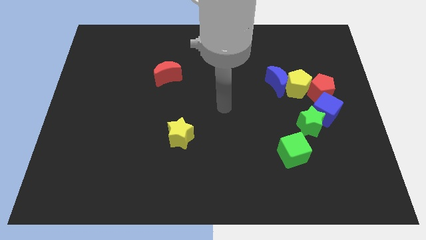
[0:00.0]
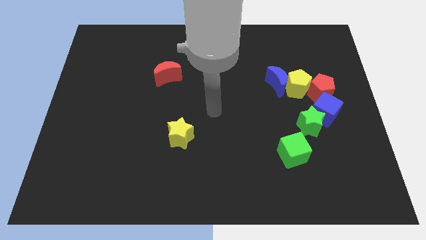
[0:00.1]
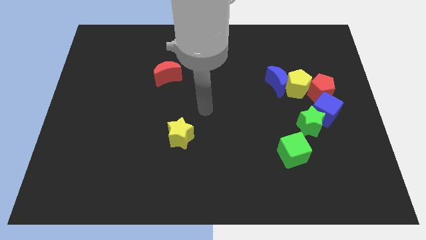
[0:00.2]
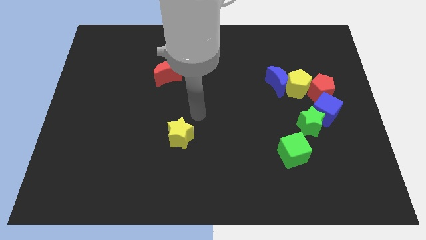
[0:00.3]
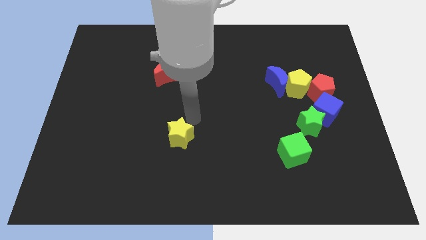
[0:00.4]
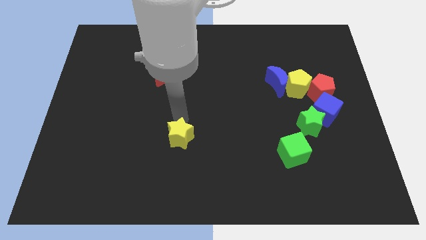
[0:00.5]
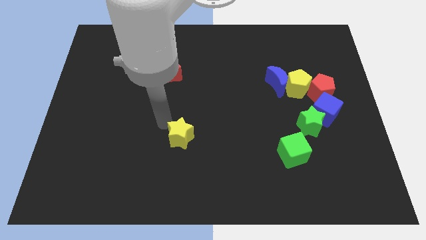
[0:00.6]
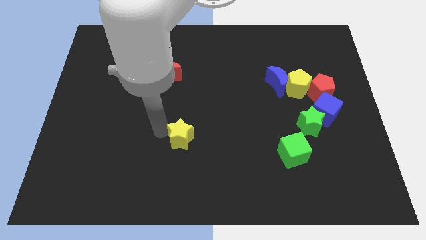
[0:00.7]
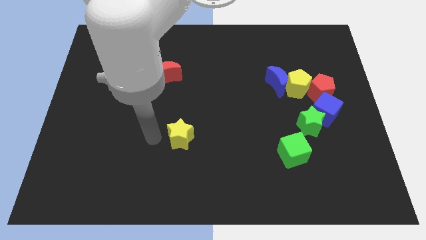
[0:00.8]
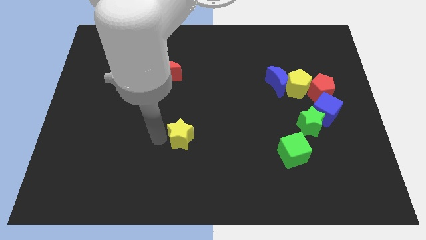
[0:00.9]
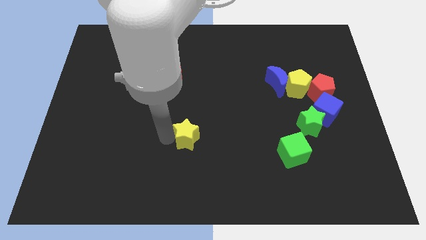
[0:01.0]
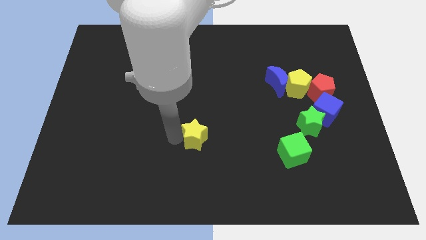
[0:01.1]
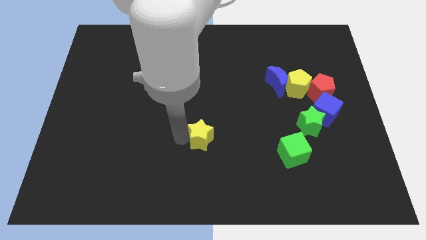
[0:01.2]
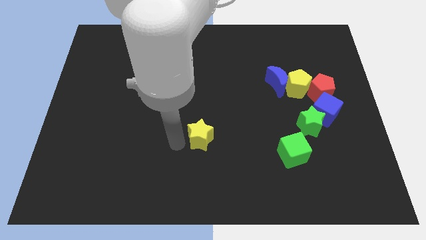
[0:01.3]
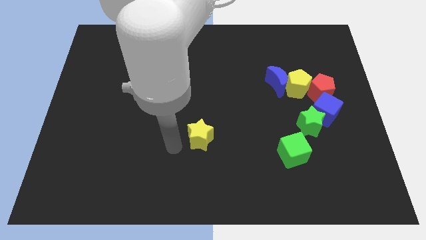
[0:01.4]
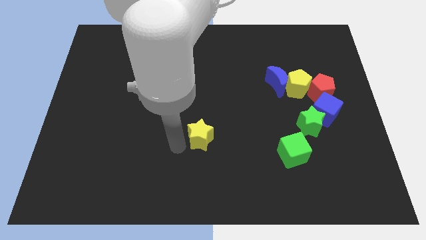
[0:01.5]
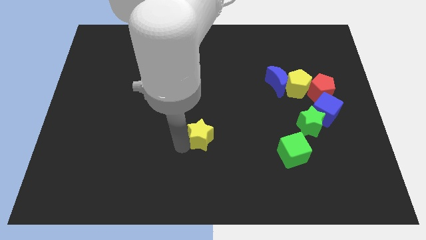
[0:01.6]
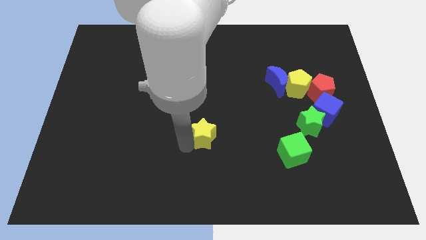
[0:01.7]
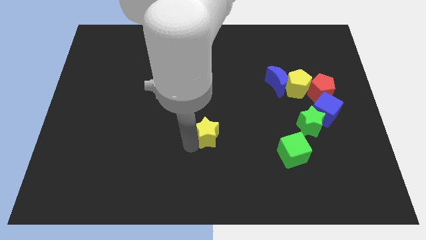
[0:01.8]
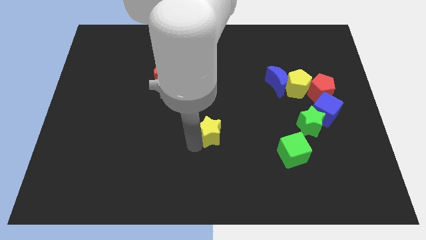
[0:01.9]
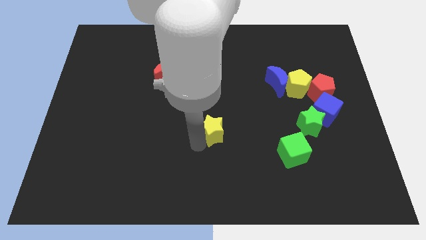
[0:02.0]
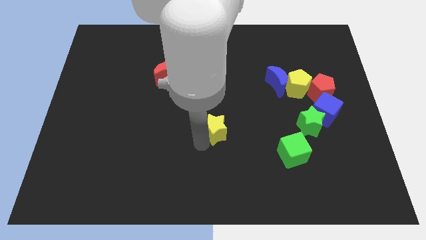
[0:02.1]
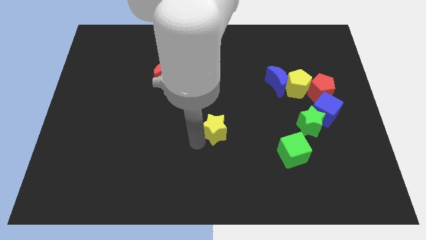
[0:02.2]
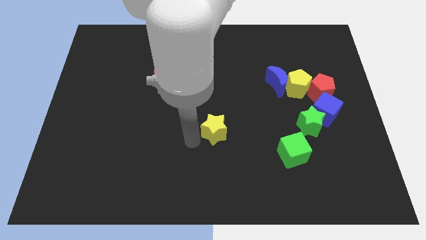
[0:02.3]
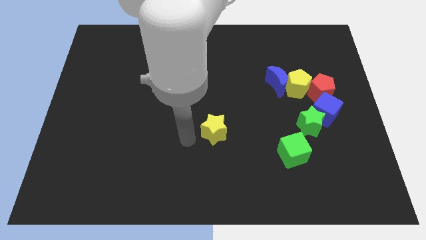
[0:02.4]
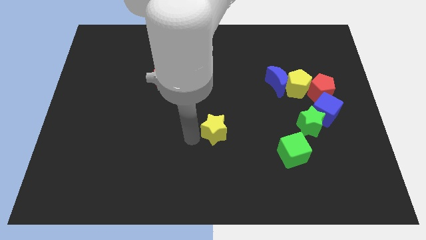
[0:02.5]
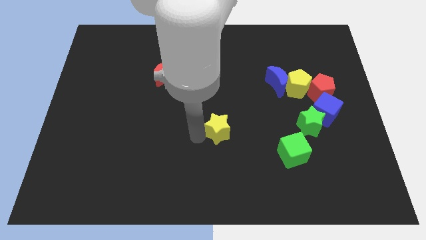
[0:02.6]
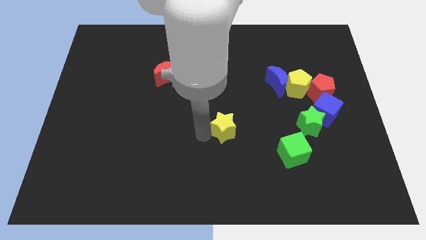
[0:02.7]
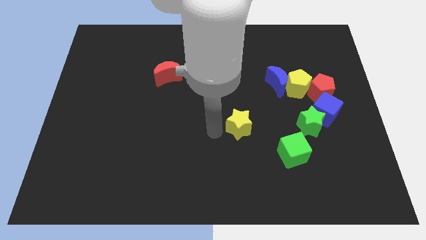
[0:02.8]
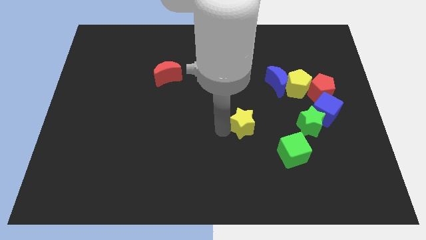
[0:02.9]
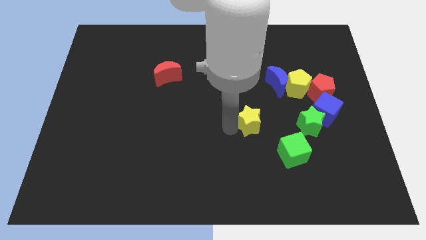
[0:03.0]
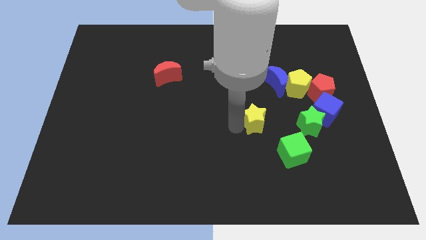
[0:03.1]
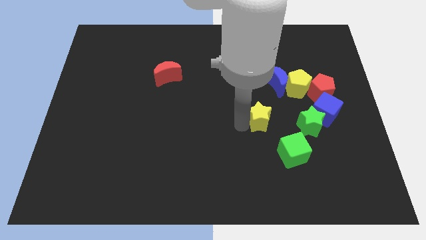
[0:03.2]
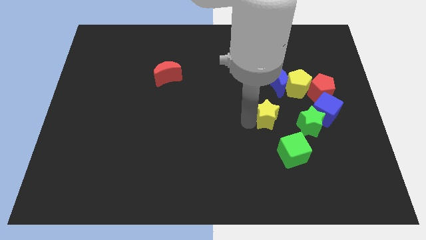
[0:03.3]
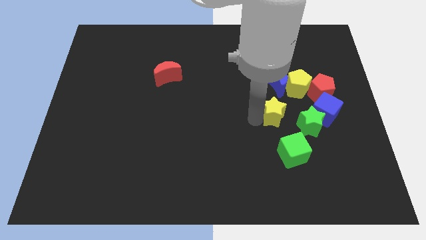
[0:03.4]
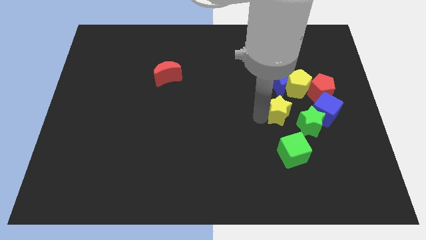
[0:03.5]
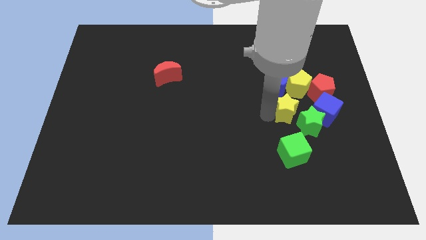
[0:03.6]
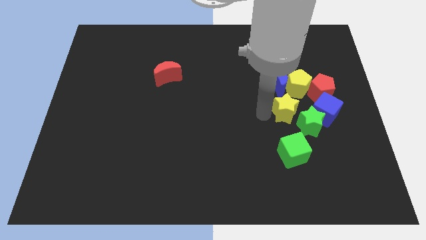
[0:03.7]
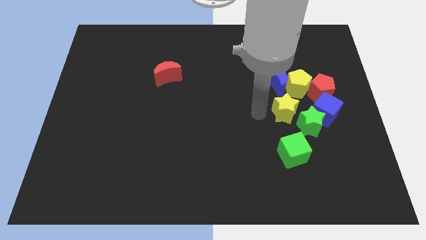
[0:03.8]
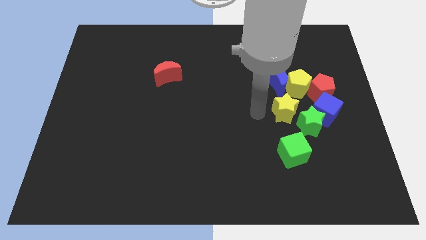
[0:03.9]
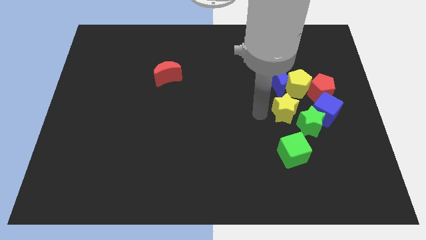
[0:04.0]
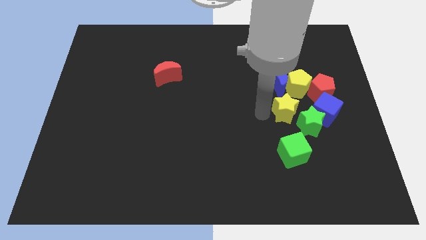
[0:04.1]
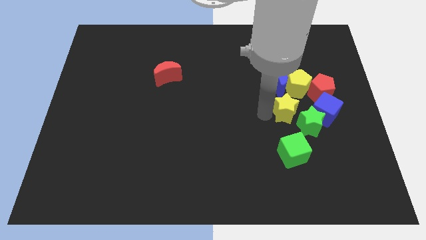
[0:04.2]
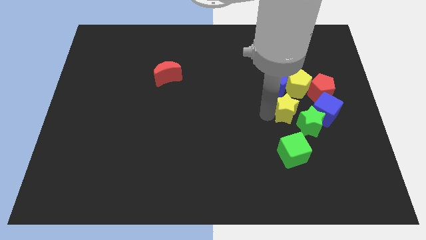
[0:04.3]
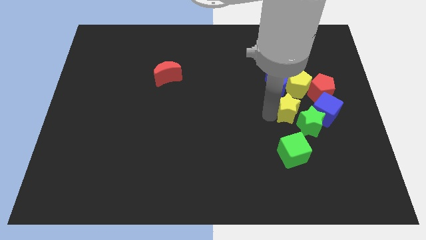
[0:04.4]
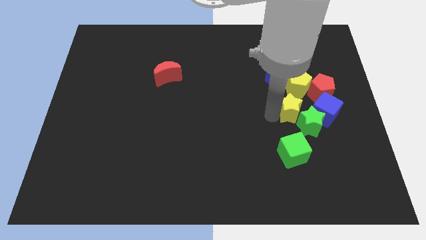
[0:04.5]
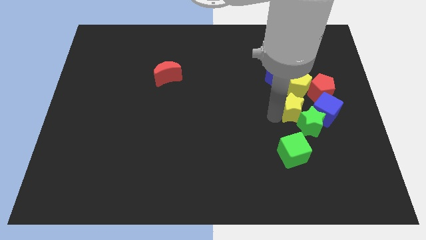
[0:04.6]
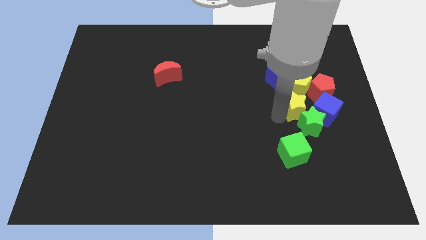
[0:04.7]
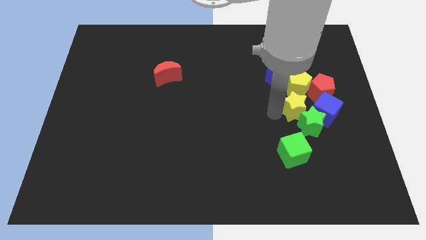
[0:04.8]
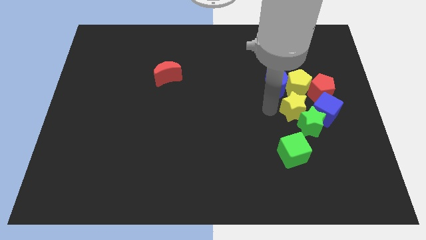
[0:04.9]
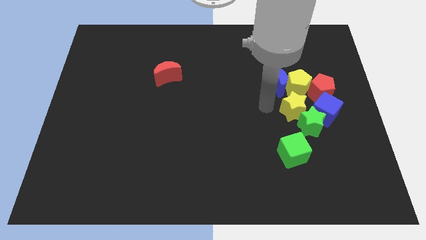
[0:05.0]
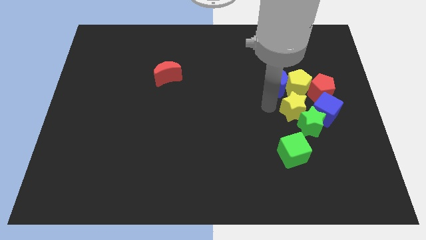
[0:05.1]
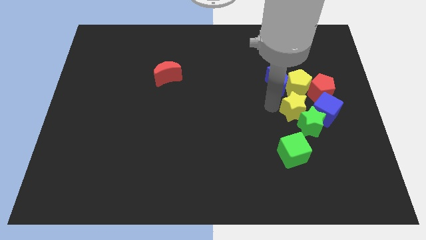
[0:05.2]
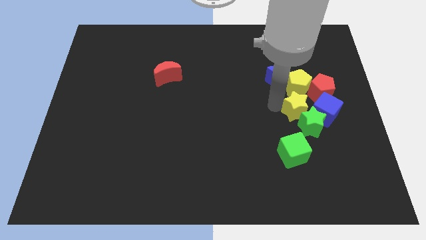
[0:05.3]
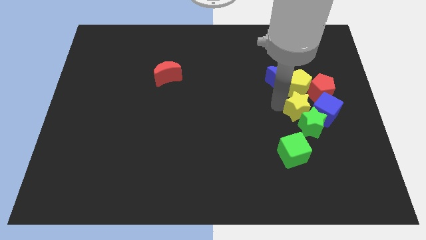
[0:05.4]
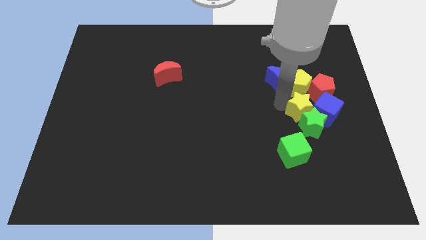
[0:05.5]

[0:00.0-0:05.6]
push the yellow star towards the blue cube

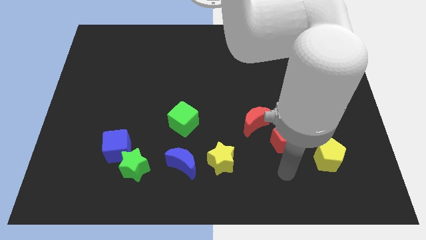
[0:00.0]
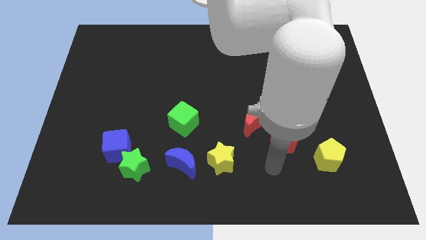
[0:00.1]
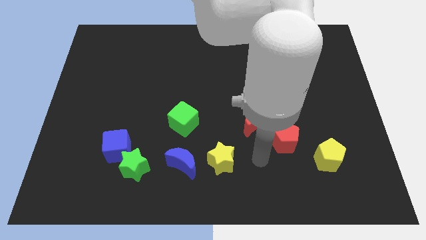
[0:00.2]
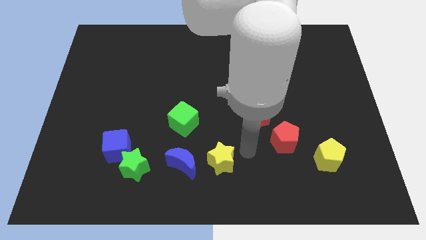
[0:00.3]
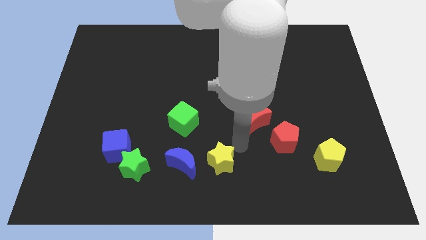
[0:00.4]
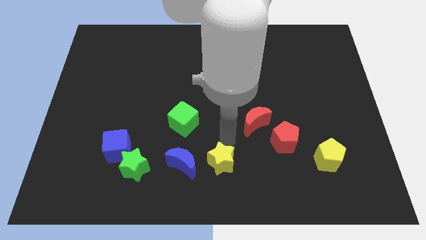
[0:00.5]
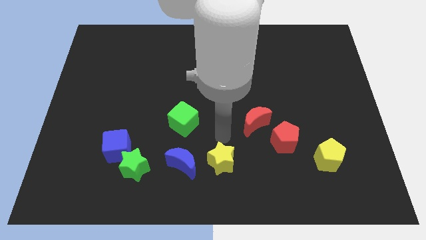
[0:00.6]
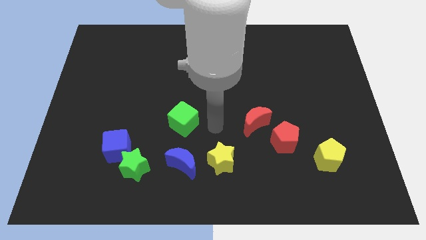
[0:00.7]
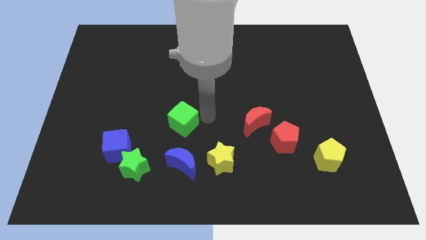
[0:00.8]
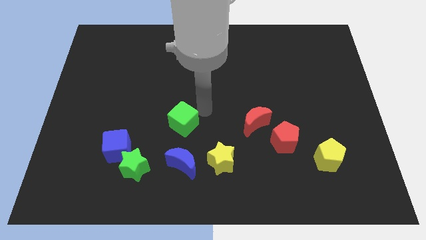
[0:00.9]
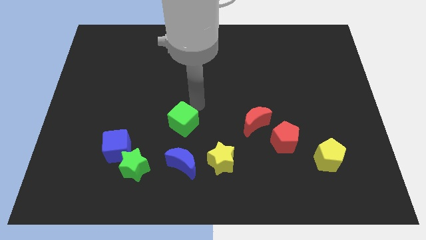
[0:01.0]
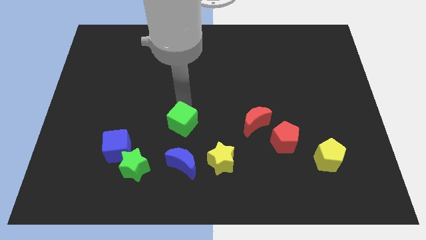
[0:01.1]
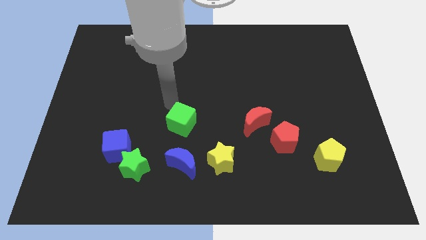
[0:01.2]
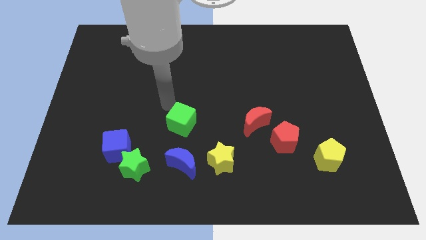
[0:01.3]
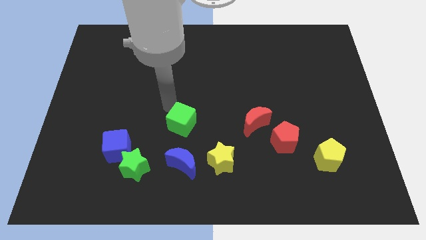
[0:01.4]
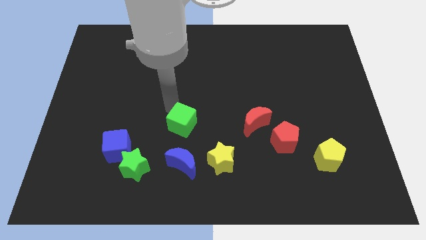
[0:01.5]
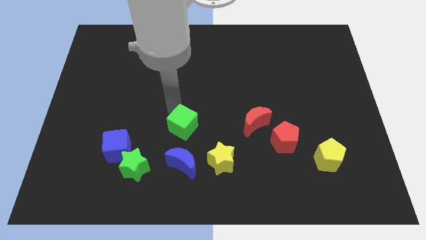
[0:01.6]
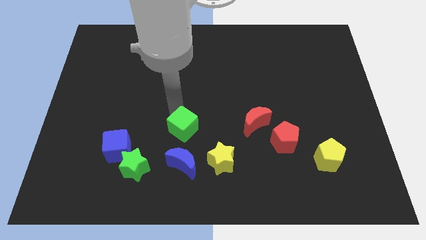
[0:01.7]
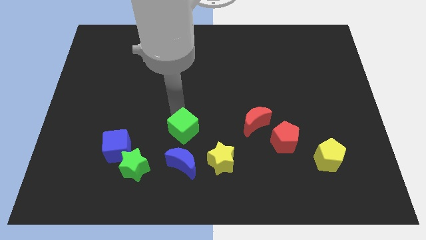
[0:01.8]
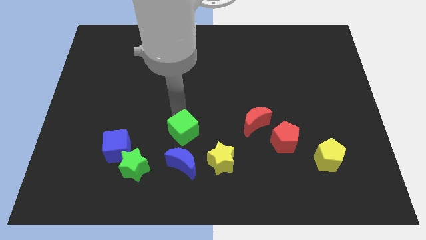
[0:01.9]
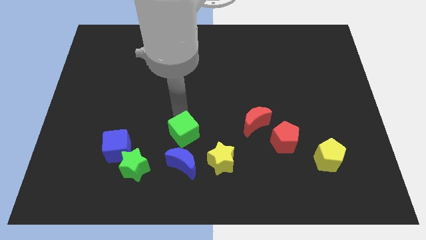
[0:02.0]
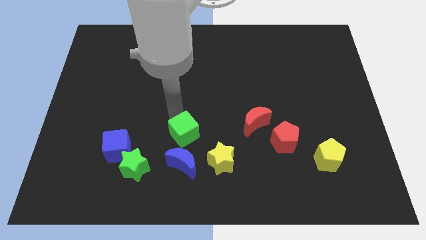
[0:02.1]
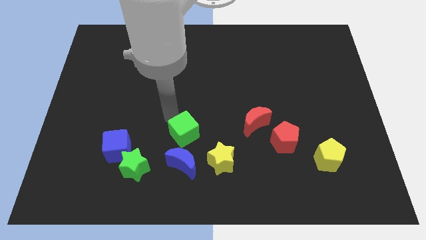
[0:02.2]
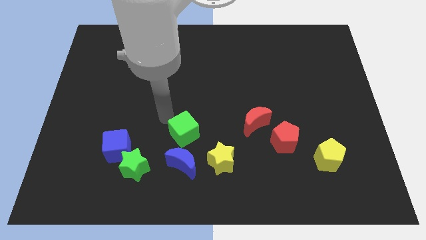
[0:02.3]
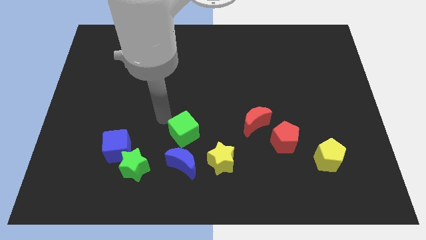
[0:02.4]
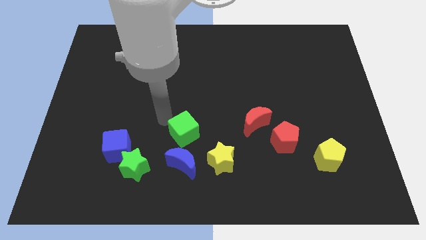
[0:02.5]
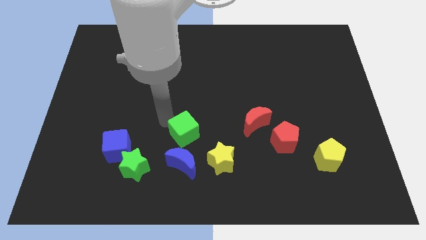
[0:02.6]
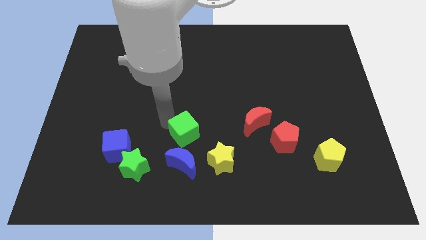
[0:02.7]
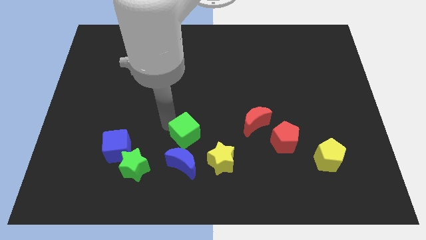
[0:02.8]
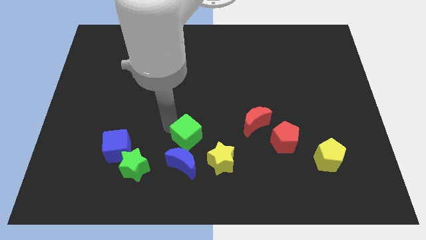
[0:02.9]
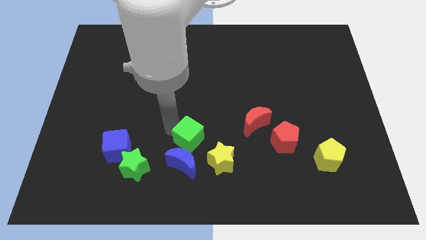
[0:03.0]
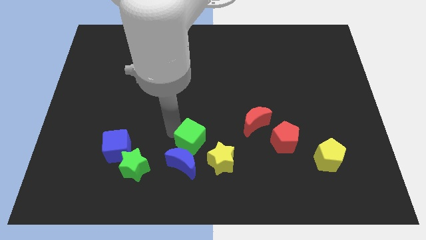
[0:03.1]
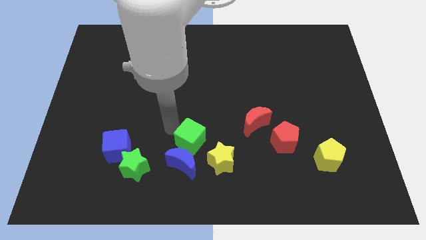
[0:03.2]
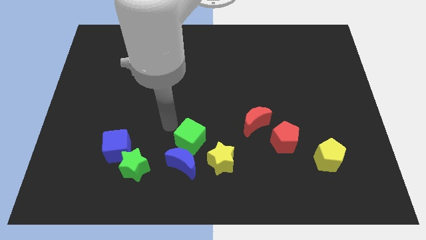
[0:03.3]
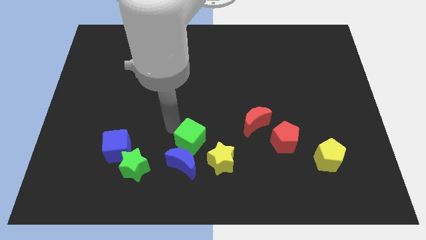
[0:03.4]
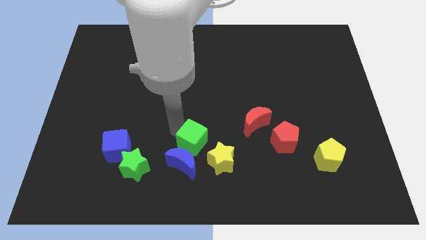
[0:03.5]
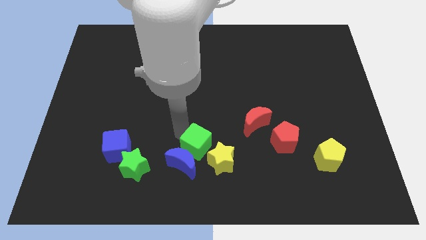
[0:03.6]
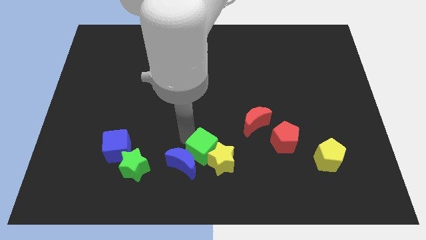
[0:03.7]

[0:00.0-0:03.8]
slide the green cube close to the yellow star
